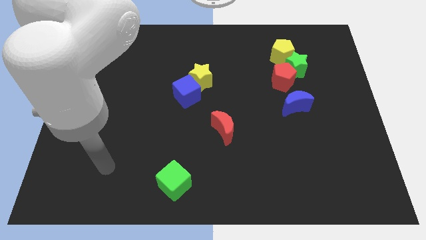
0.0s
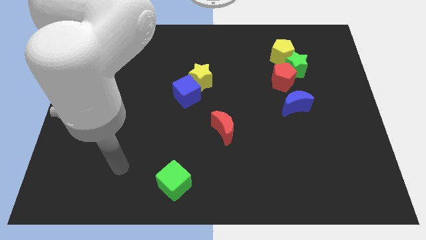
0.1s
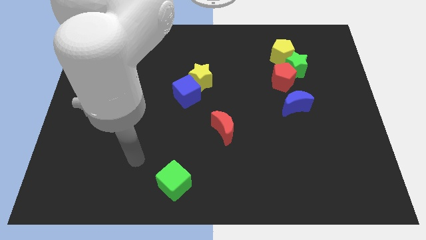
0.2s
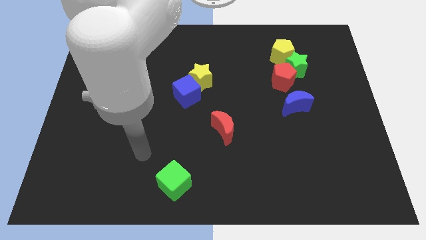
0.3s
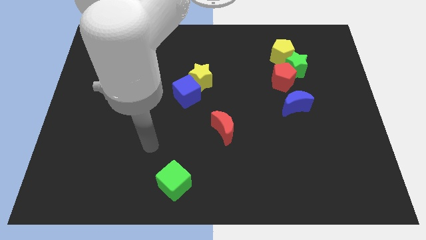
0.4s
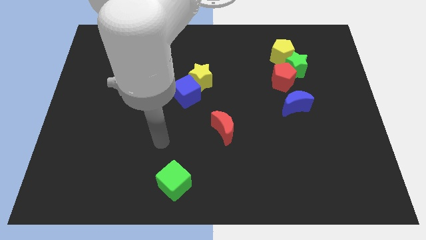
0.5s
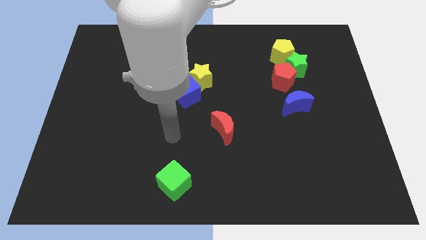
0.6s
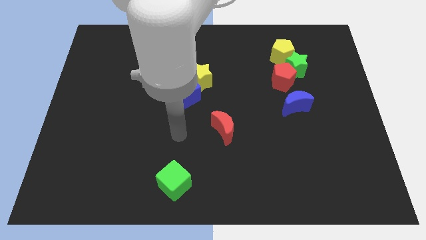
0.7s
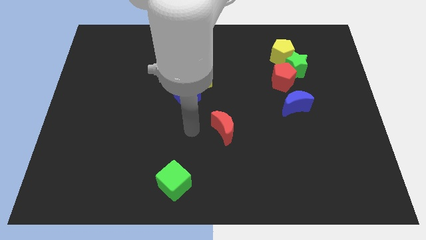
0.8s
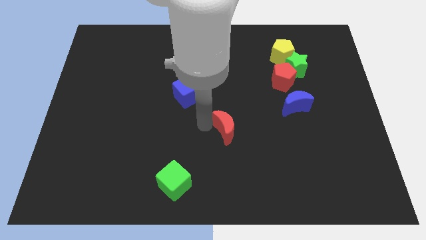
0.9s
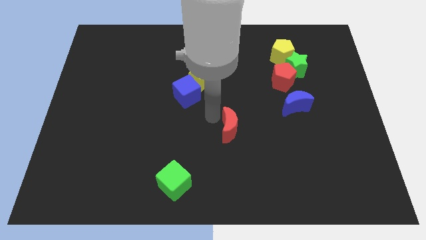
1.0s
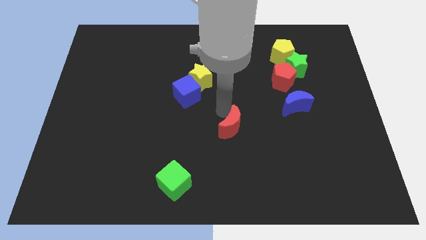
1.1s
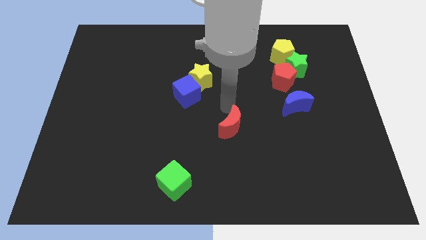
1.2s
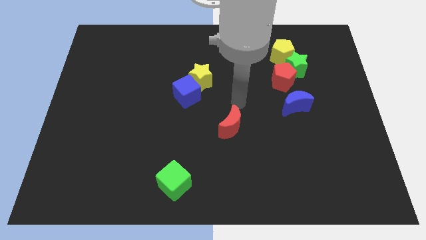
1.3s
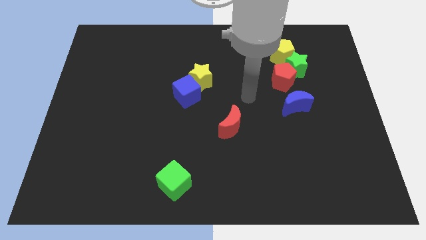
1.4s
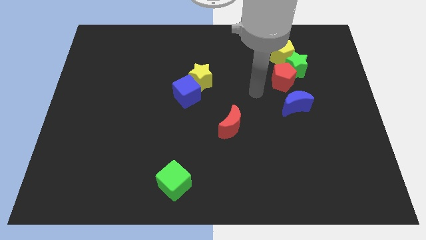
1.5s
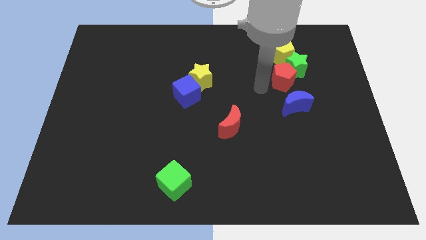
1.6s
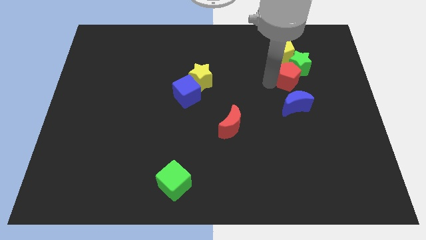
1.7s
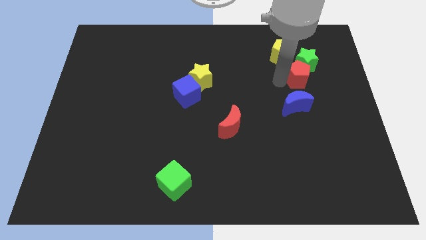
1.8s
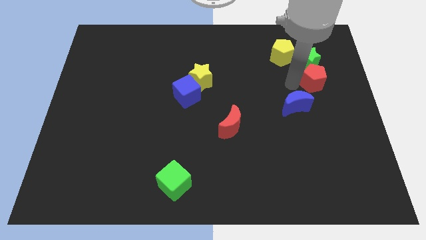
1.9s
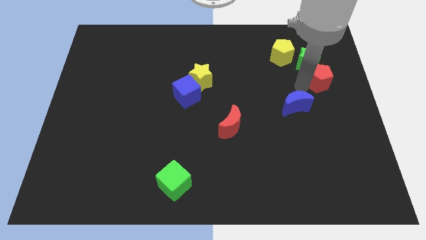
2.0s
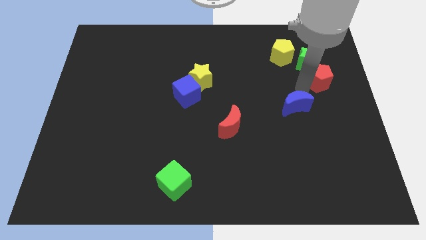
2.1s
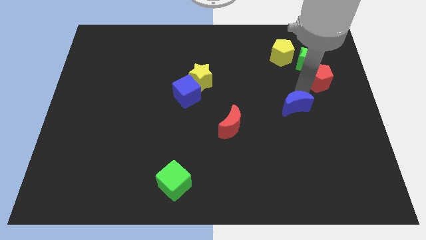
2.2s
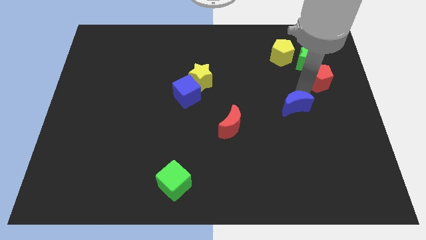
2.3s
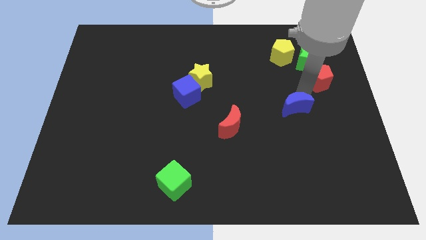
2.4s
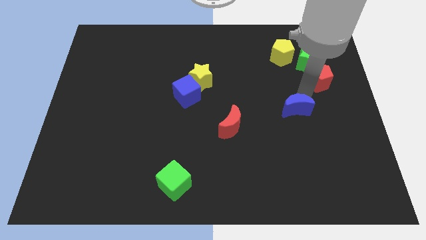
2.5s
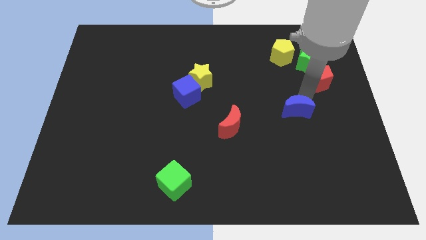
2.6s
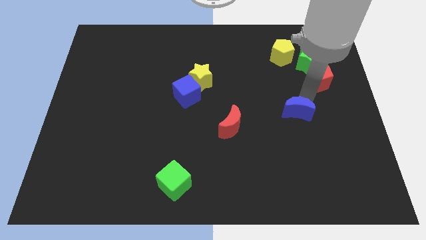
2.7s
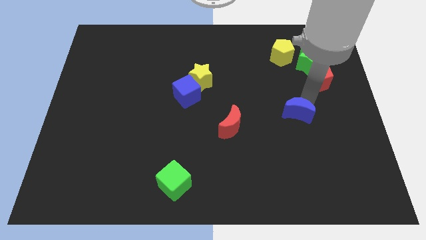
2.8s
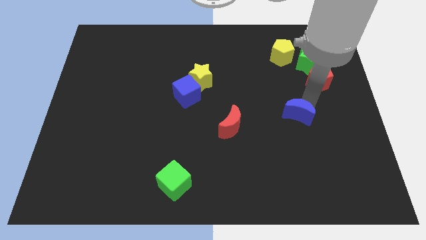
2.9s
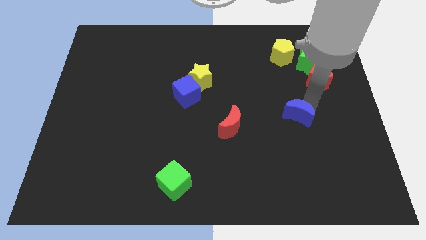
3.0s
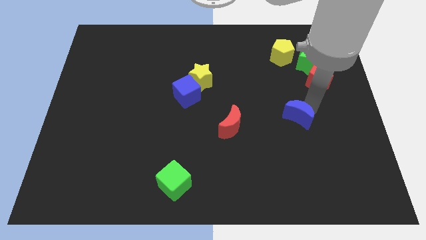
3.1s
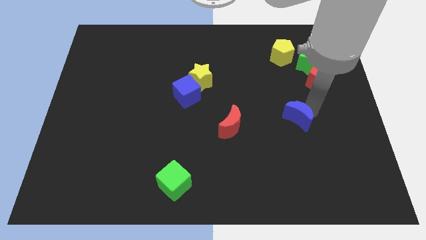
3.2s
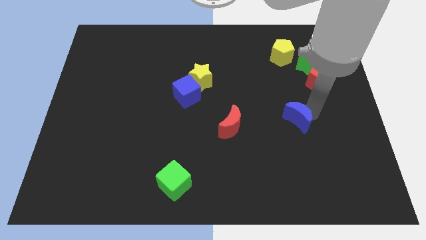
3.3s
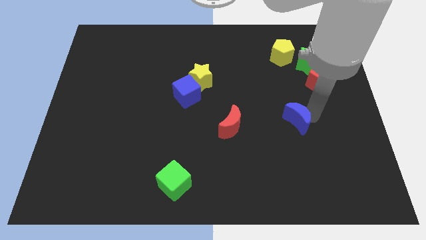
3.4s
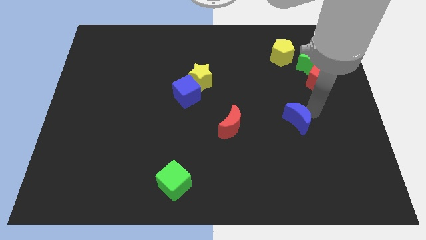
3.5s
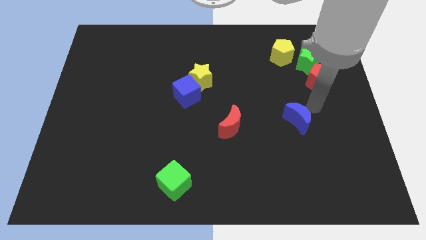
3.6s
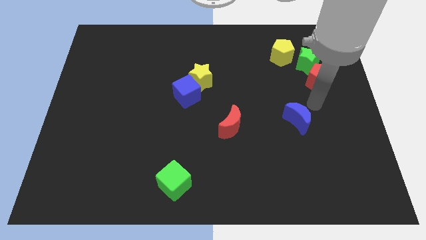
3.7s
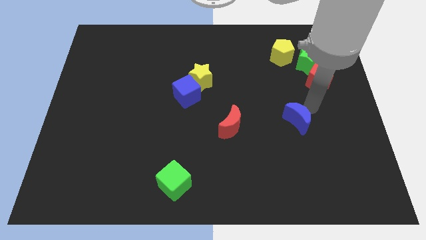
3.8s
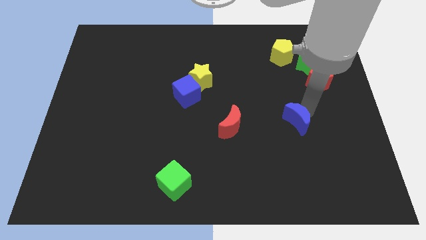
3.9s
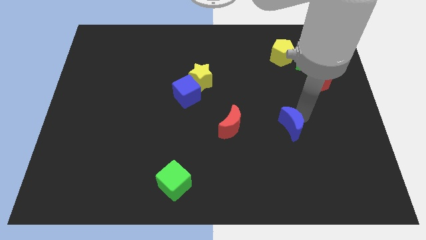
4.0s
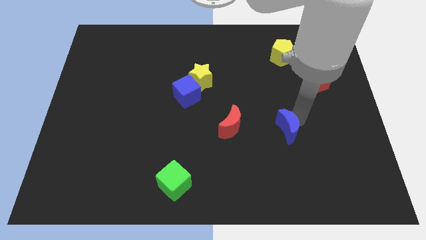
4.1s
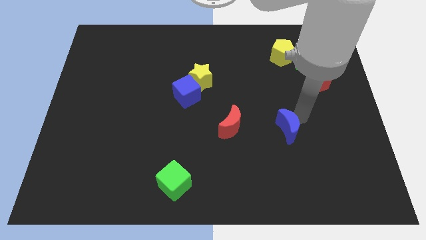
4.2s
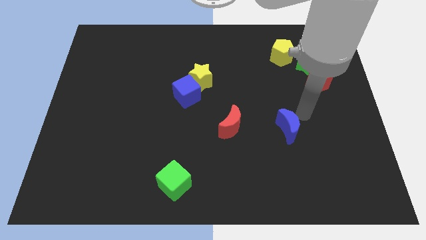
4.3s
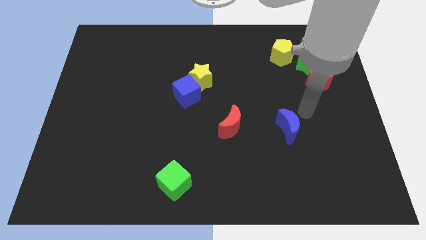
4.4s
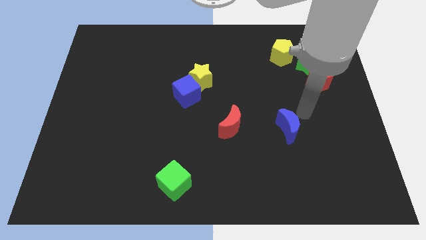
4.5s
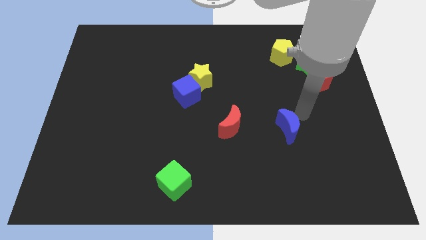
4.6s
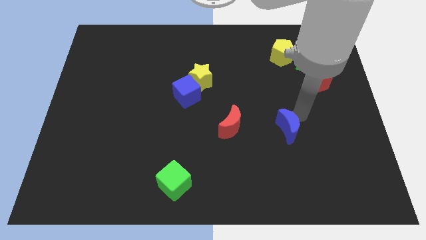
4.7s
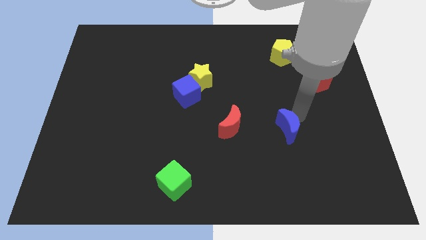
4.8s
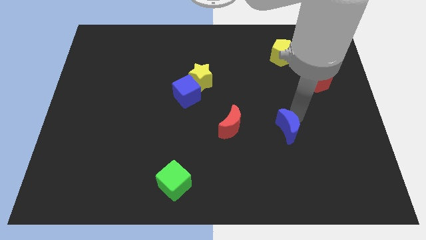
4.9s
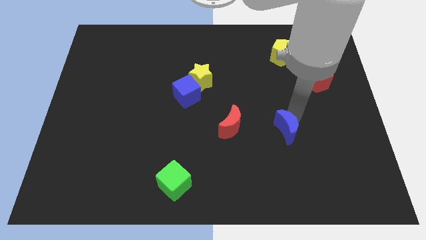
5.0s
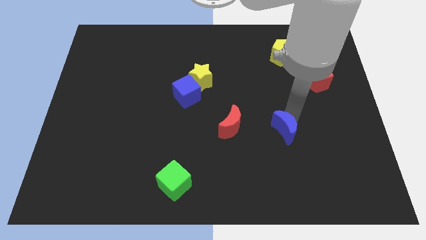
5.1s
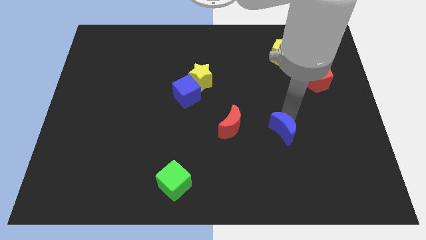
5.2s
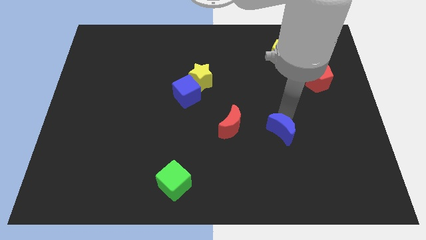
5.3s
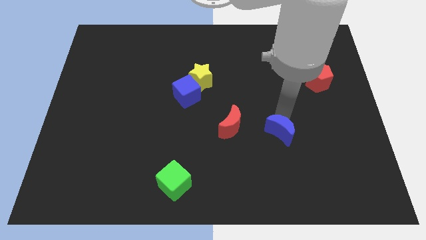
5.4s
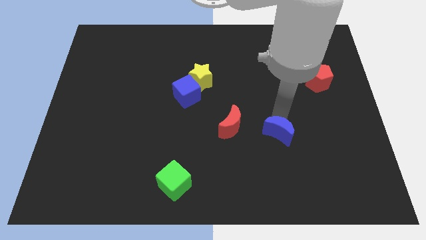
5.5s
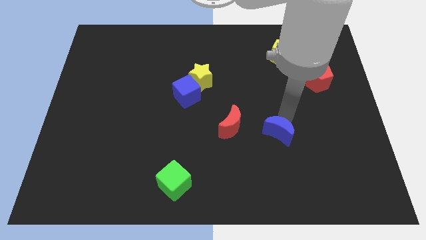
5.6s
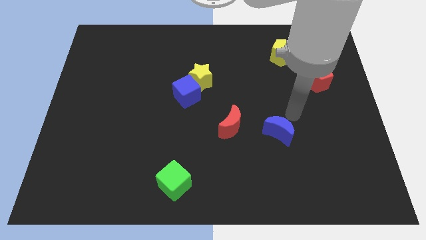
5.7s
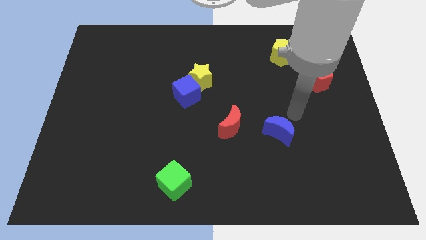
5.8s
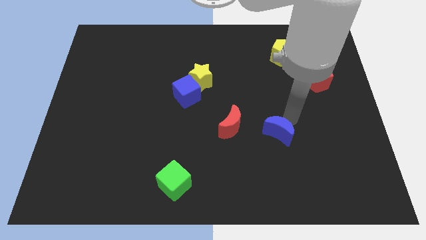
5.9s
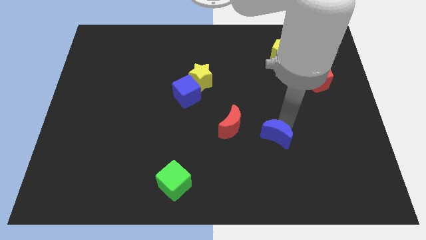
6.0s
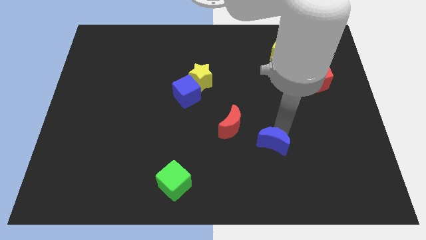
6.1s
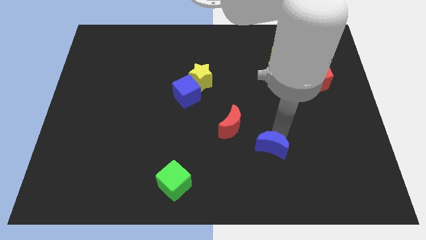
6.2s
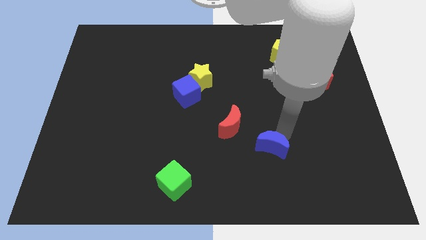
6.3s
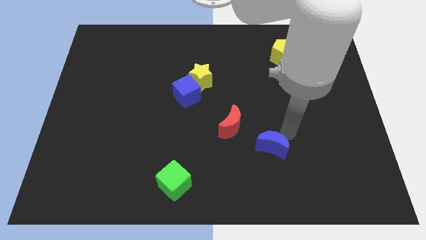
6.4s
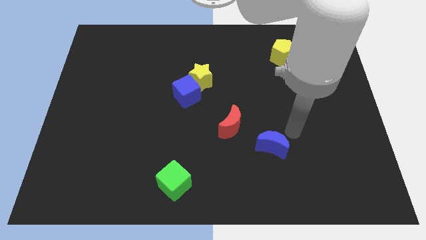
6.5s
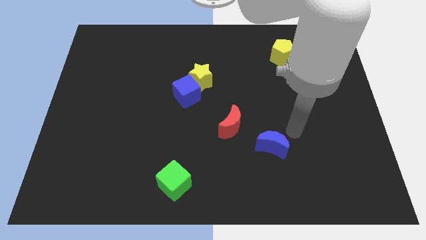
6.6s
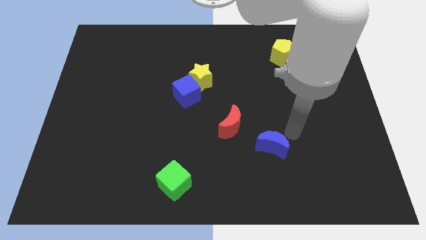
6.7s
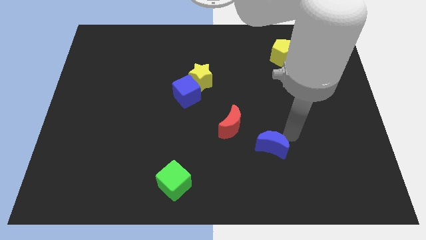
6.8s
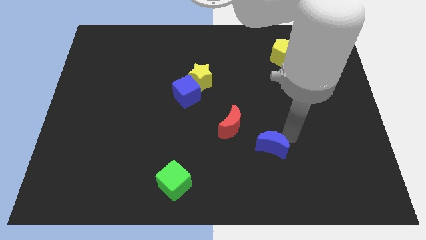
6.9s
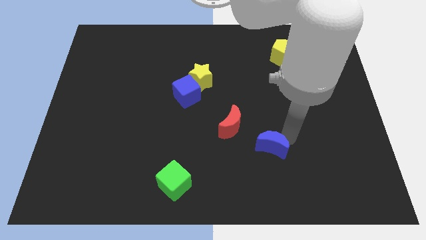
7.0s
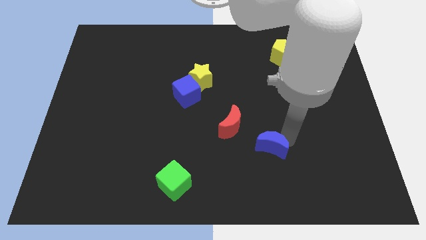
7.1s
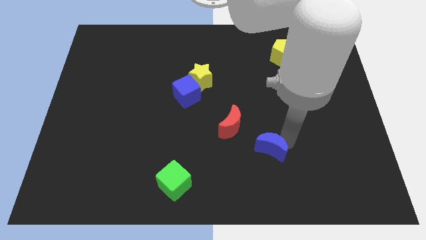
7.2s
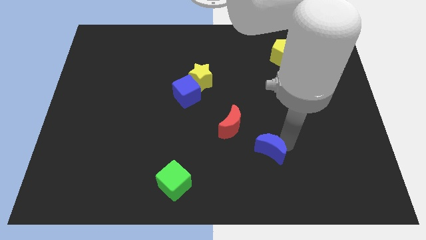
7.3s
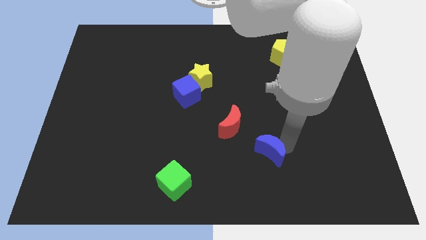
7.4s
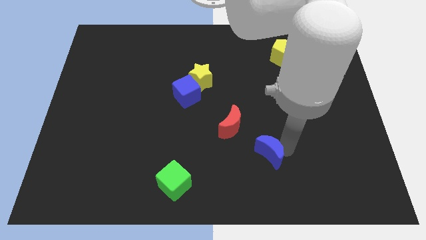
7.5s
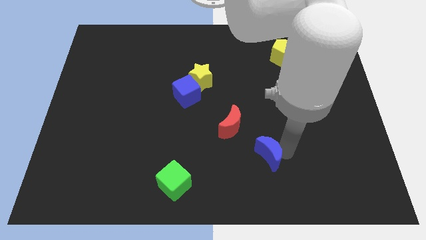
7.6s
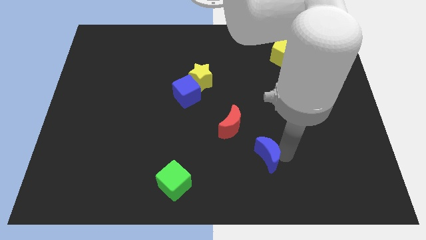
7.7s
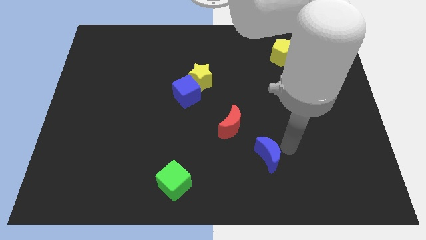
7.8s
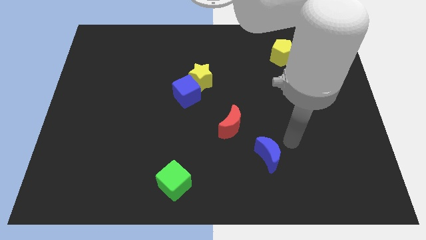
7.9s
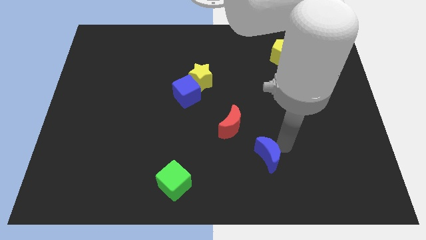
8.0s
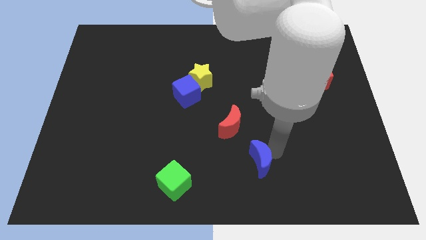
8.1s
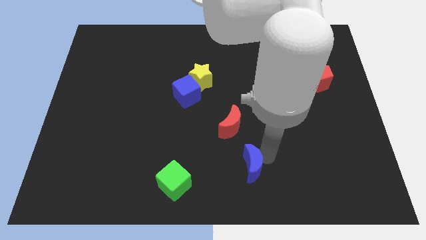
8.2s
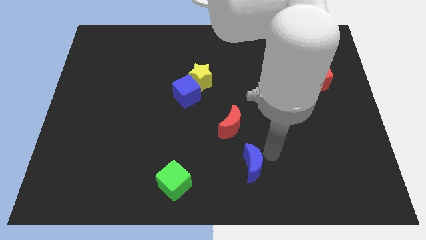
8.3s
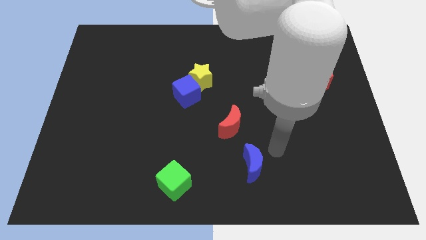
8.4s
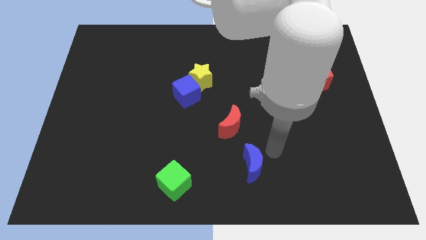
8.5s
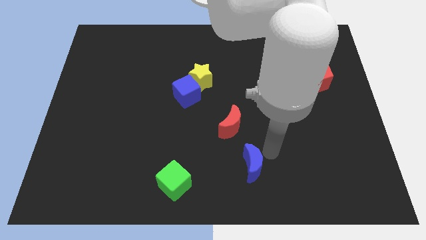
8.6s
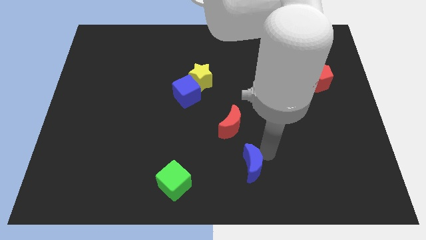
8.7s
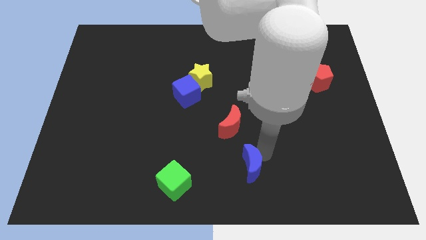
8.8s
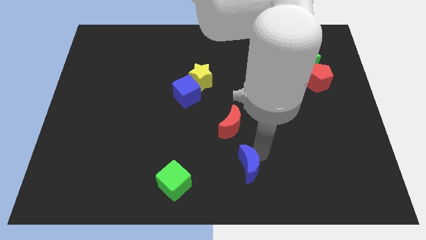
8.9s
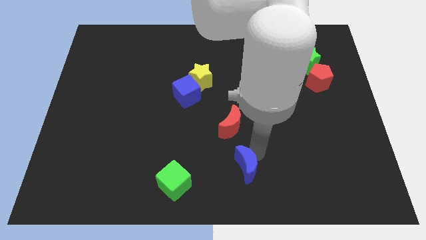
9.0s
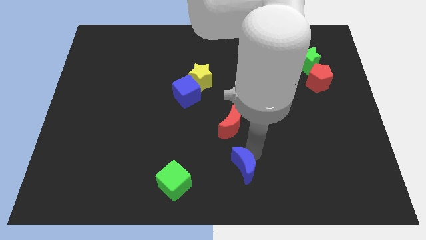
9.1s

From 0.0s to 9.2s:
push the blue moon to the right side of the green cube
